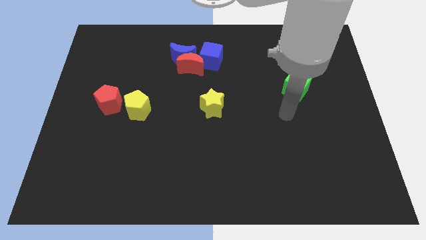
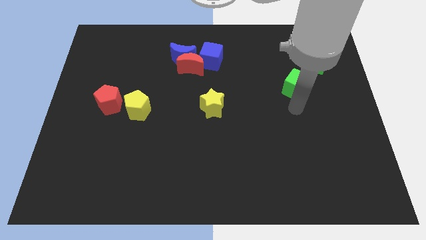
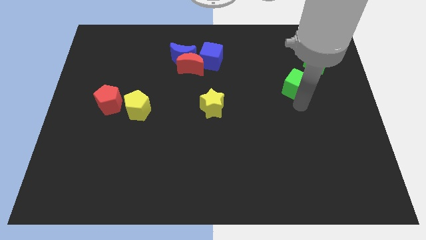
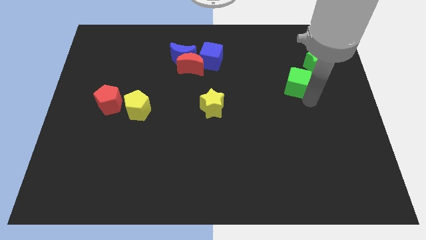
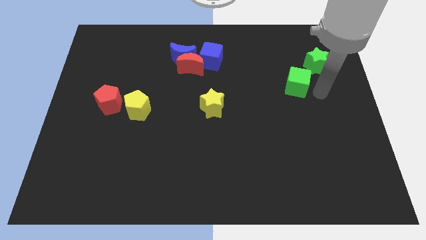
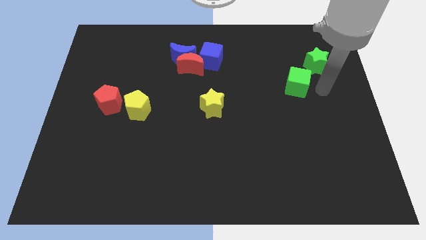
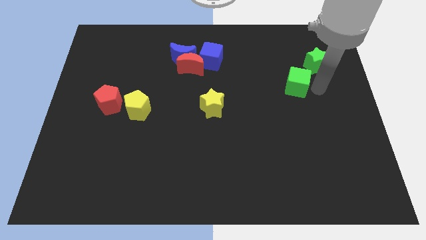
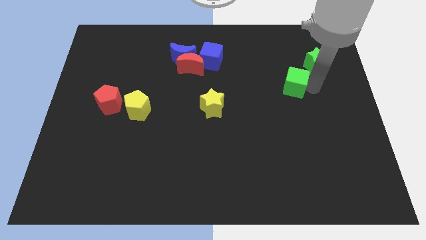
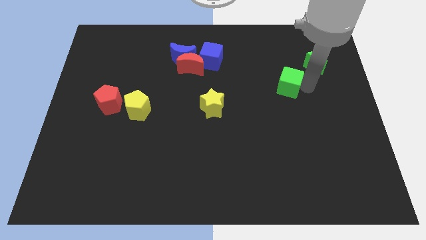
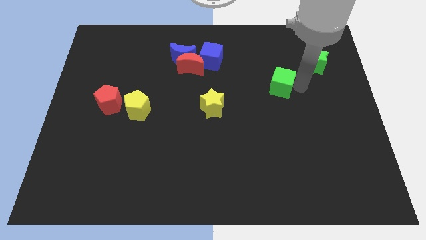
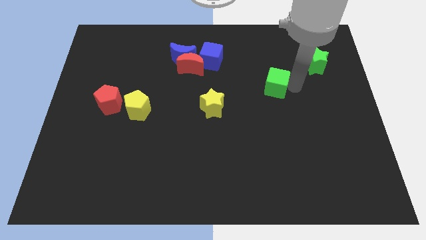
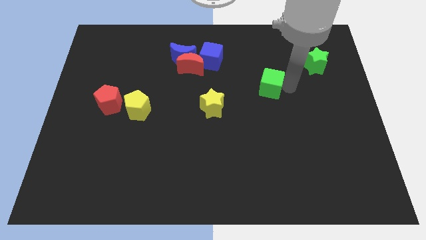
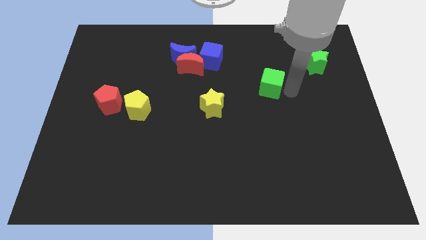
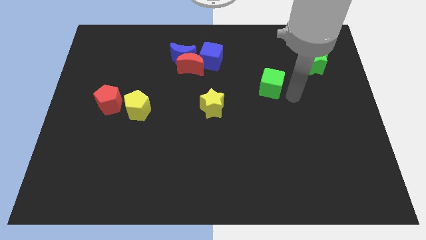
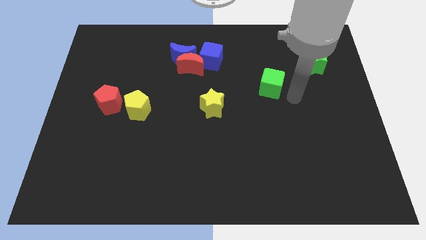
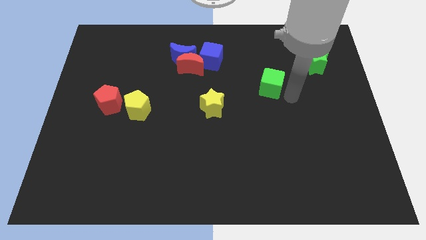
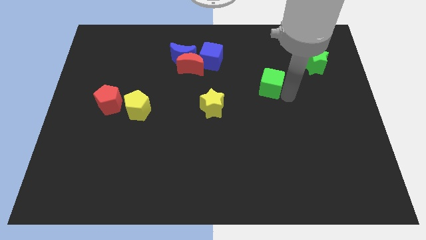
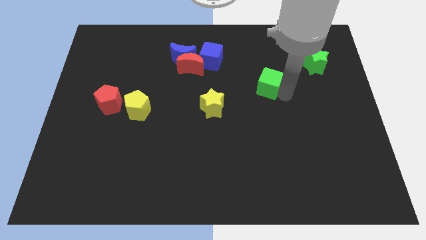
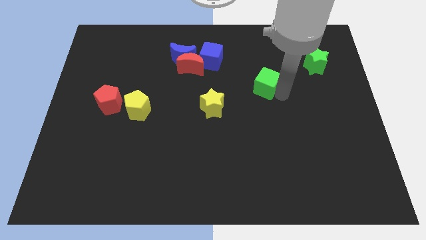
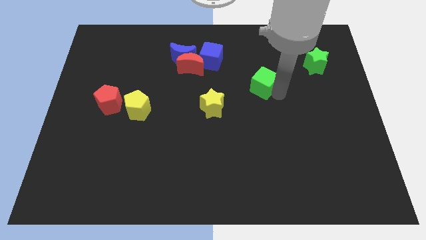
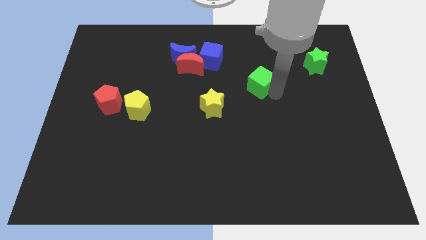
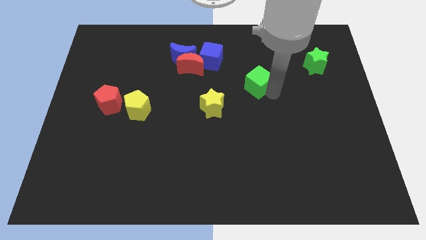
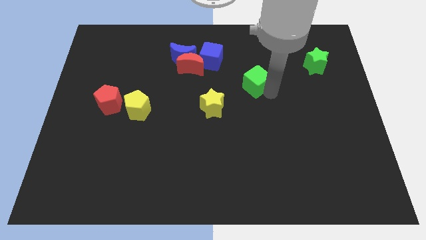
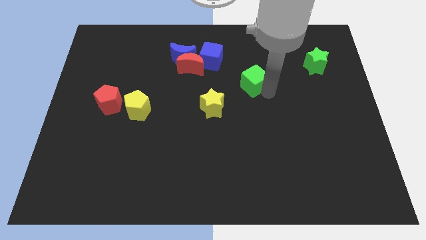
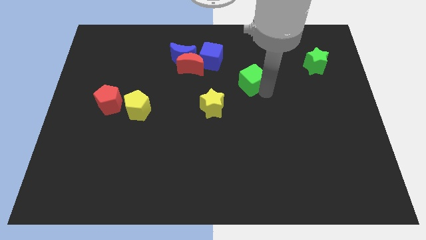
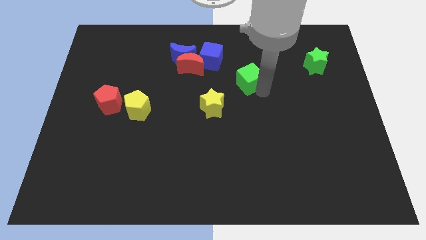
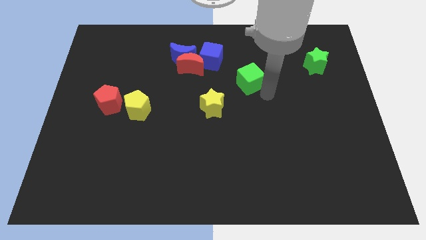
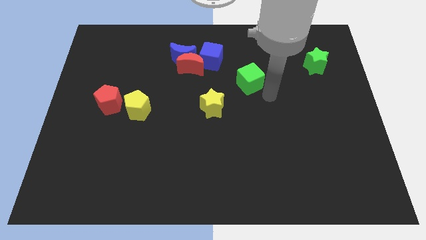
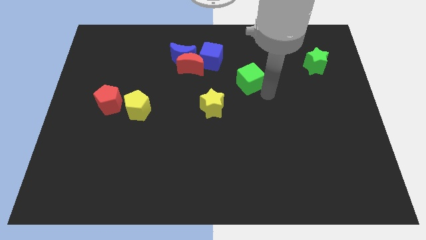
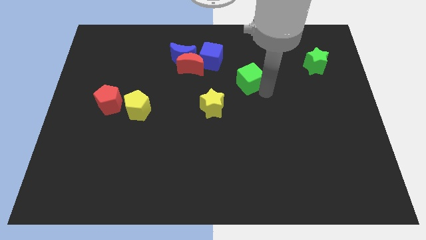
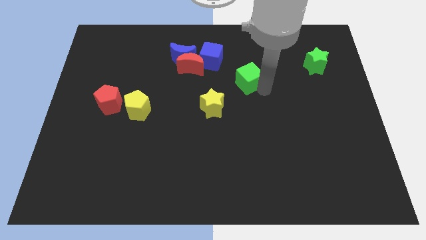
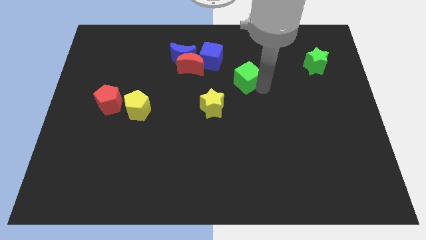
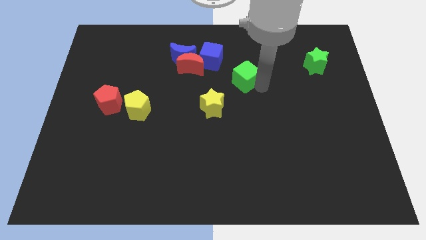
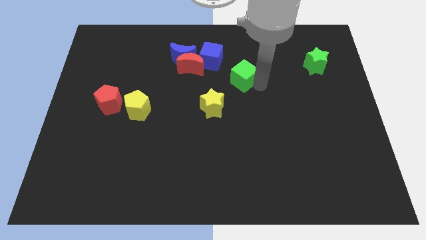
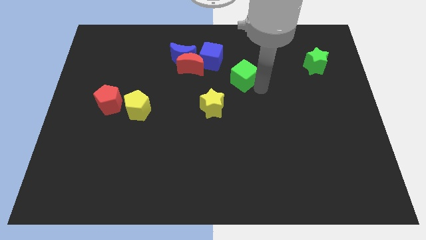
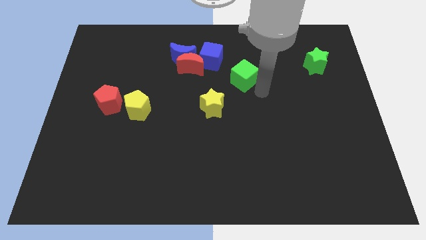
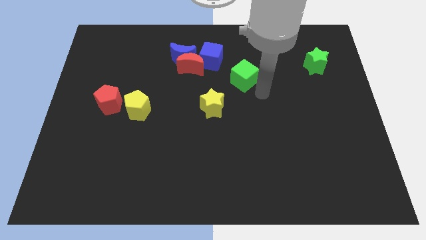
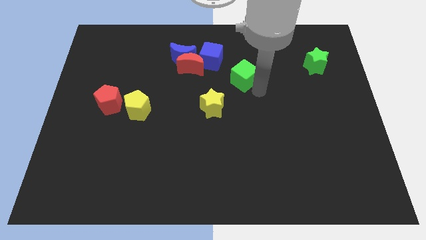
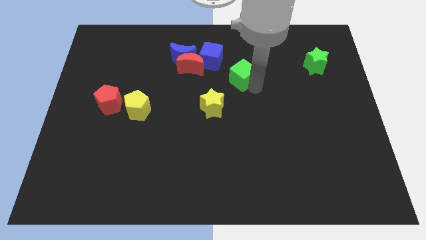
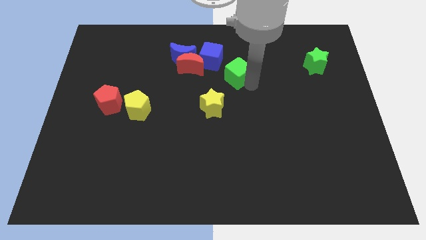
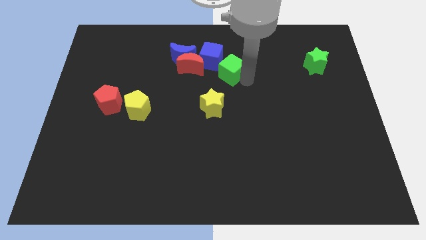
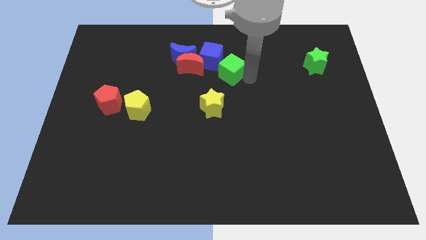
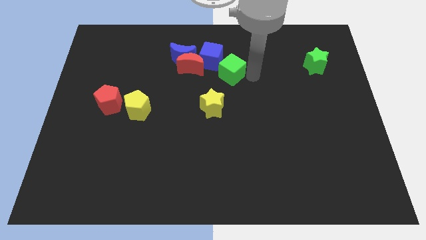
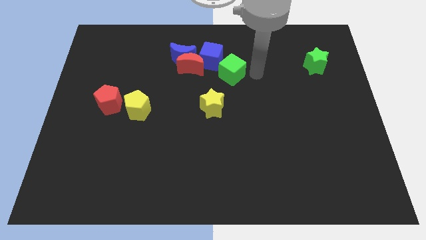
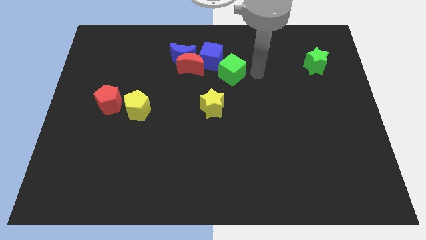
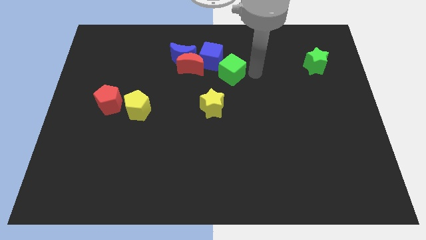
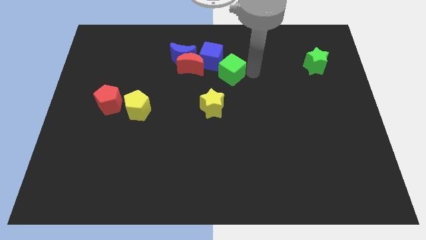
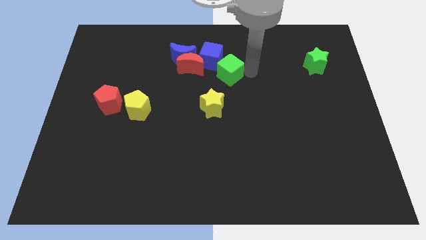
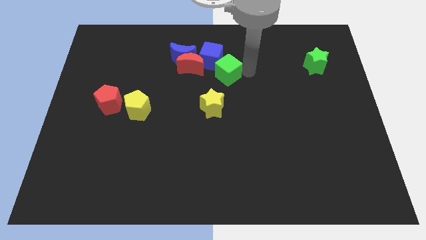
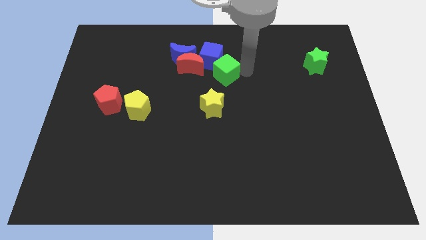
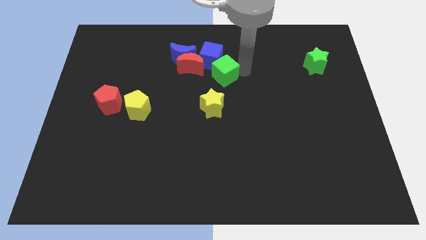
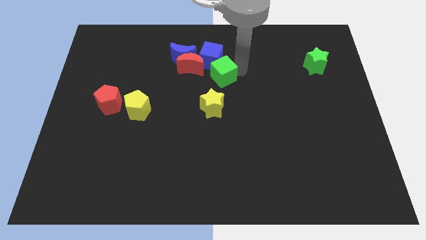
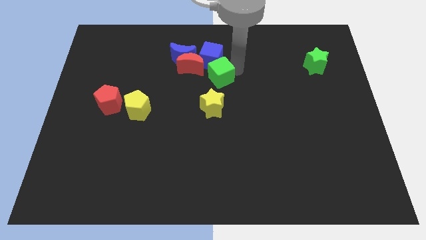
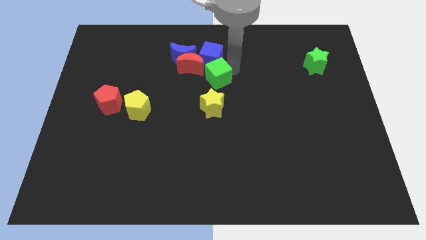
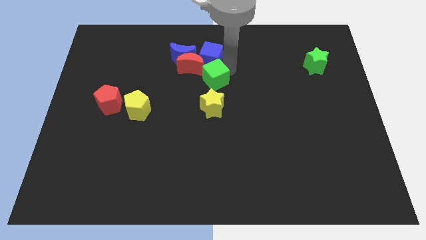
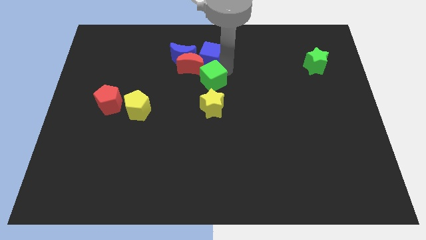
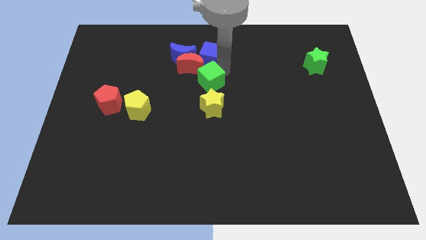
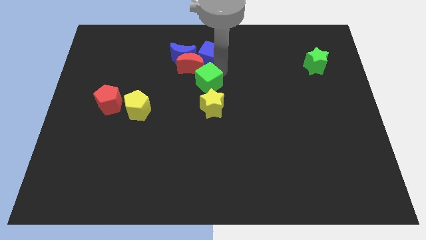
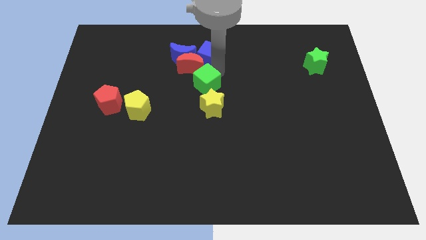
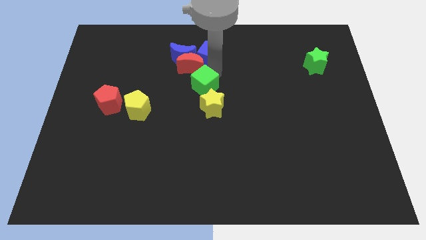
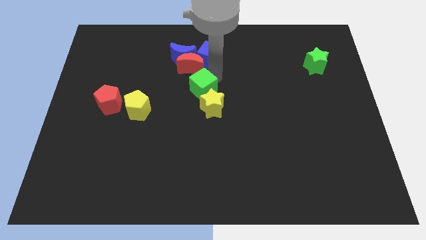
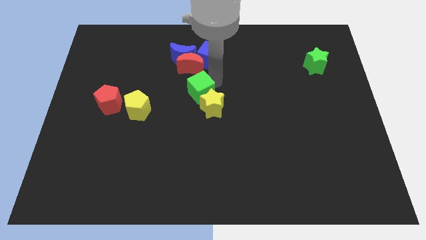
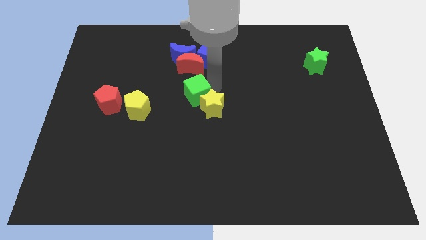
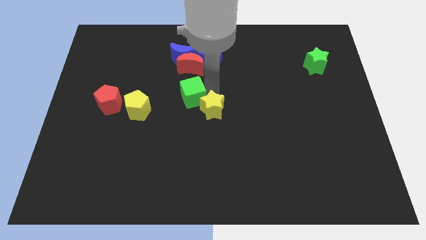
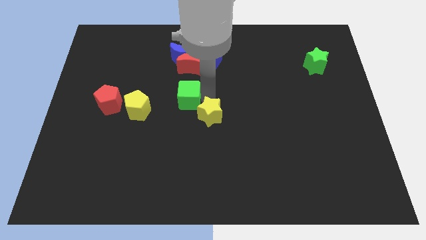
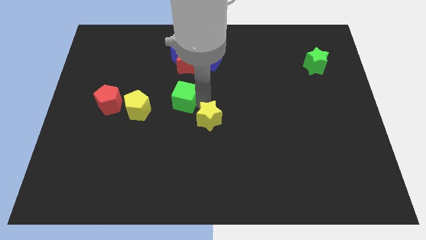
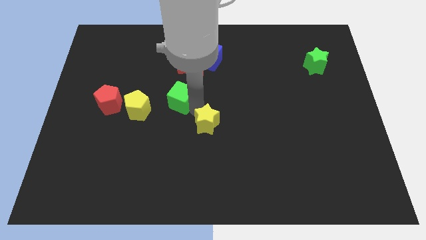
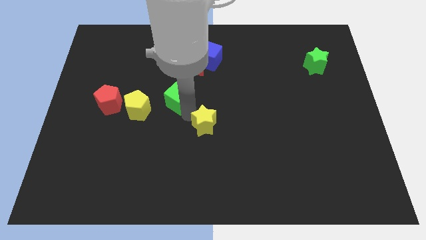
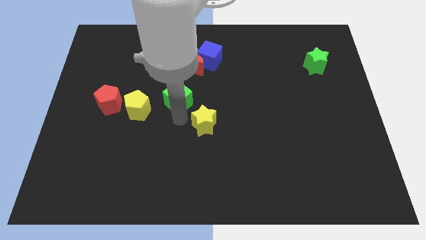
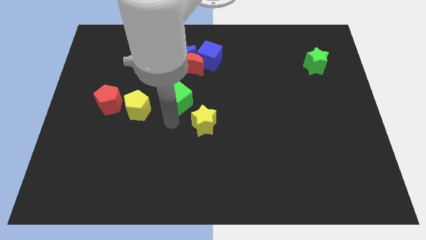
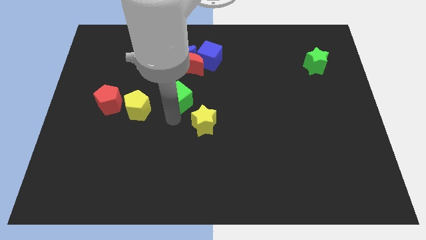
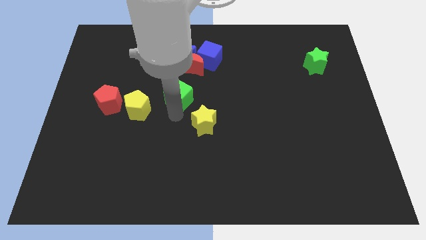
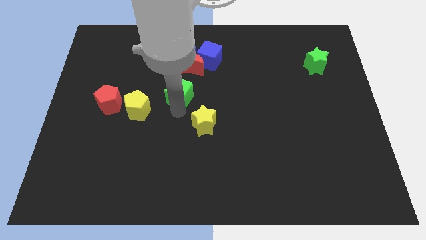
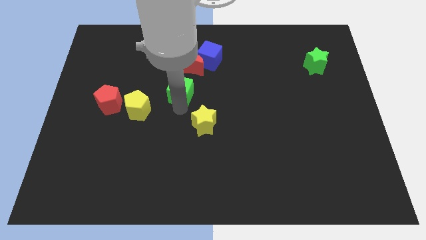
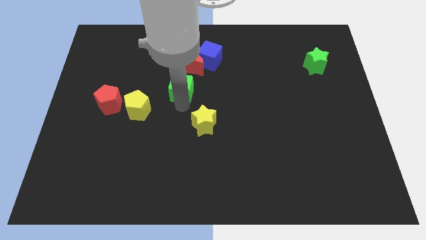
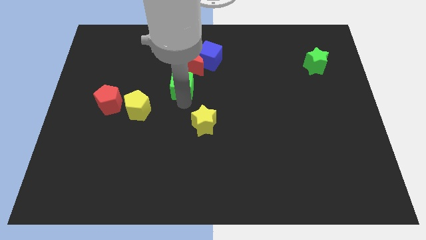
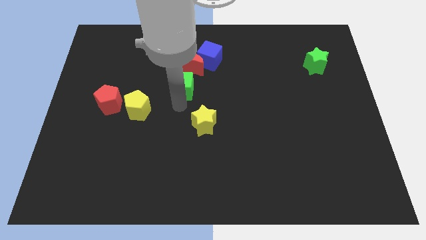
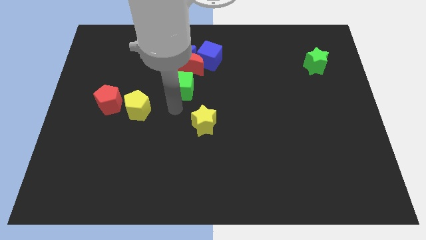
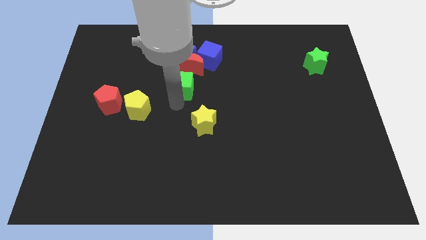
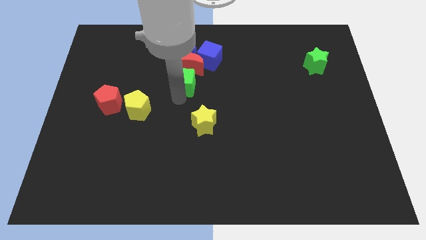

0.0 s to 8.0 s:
slide the green cube close to the red moon
